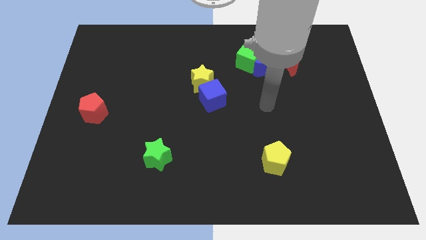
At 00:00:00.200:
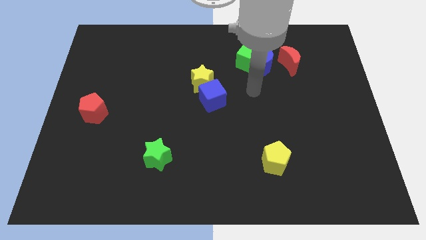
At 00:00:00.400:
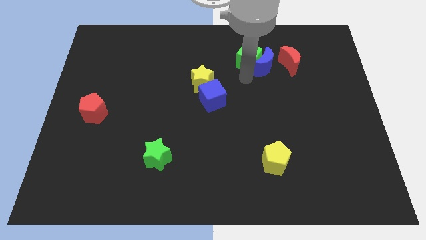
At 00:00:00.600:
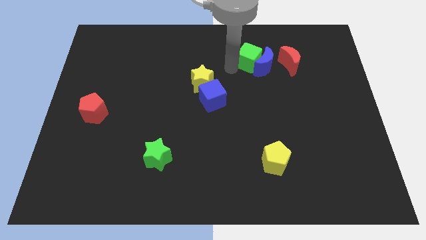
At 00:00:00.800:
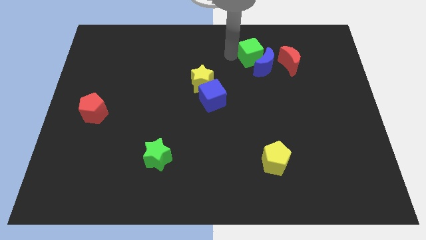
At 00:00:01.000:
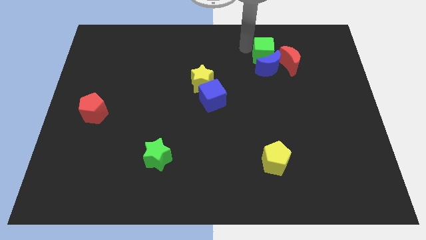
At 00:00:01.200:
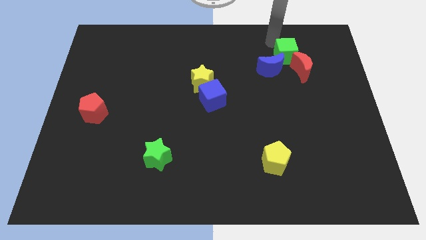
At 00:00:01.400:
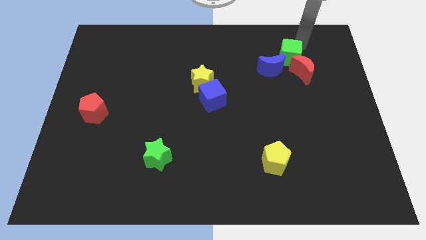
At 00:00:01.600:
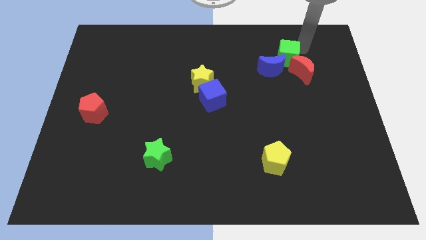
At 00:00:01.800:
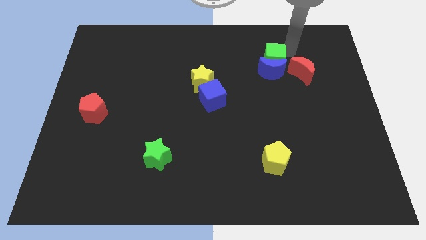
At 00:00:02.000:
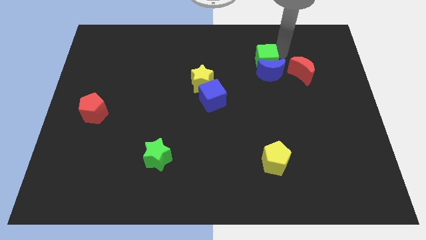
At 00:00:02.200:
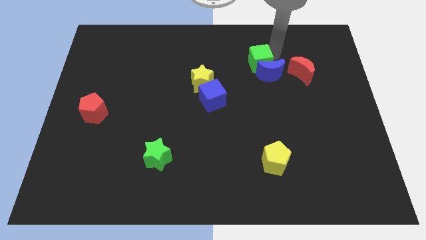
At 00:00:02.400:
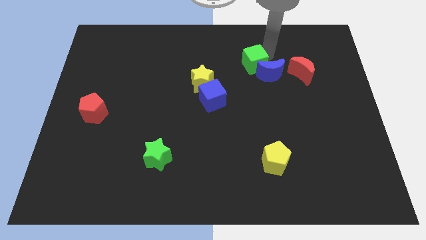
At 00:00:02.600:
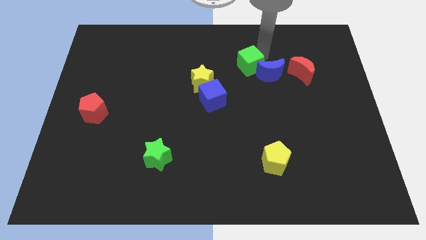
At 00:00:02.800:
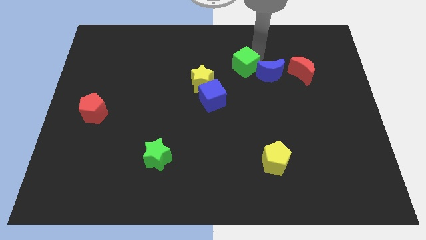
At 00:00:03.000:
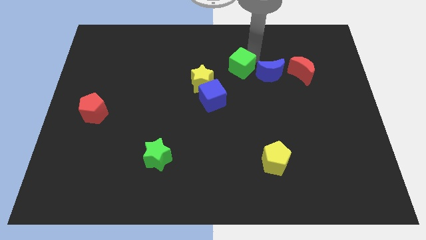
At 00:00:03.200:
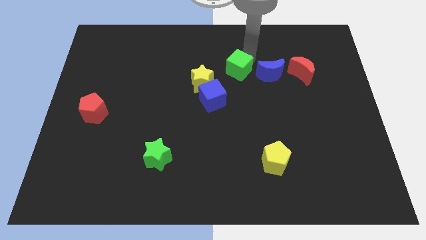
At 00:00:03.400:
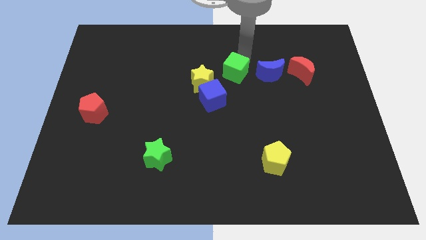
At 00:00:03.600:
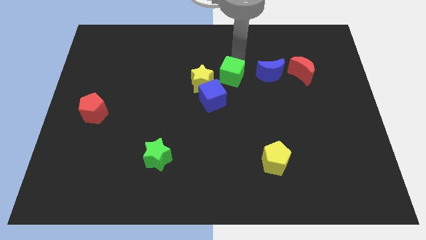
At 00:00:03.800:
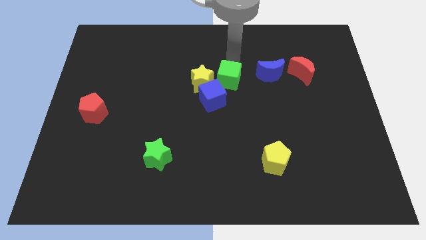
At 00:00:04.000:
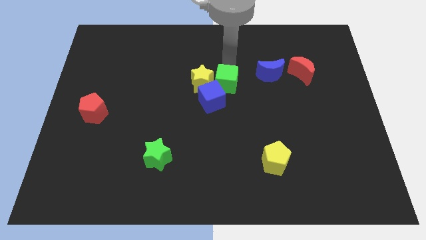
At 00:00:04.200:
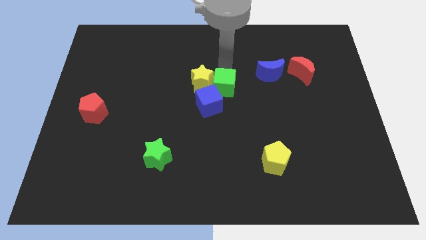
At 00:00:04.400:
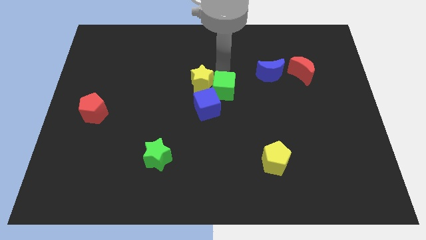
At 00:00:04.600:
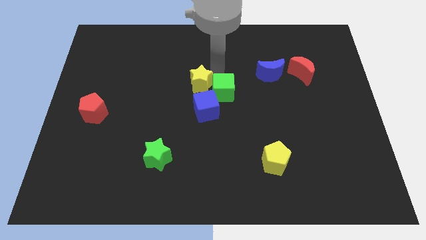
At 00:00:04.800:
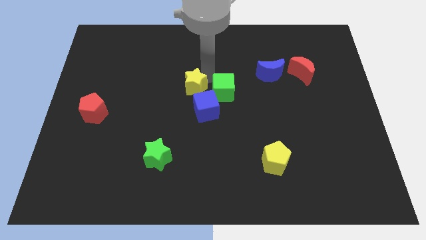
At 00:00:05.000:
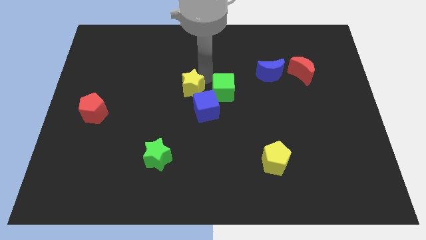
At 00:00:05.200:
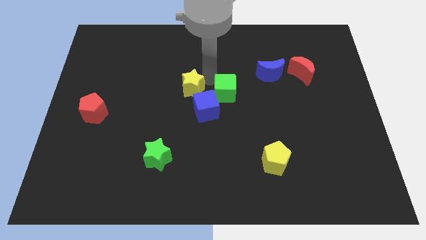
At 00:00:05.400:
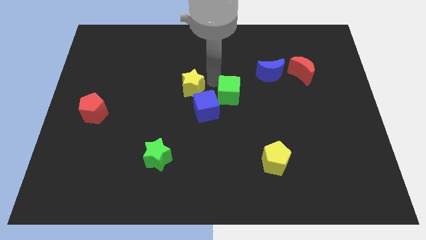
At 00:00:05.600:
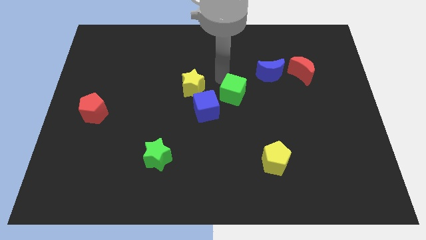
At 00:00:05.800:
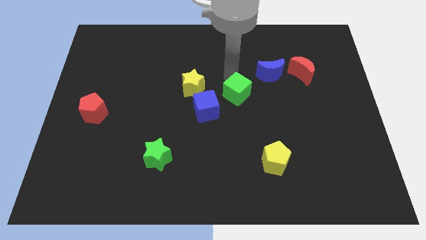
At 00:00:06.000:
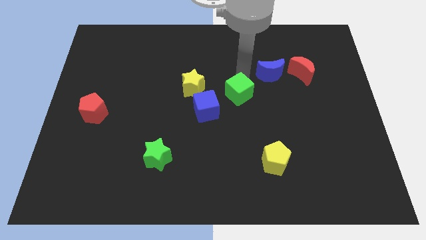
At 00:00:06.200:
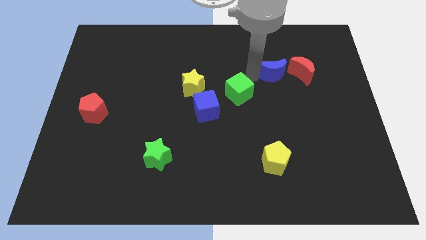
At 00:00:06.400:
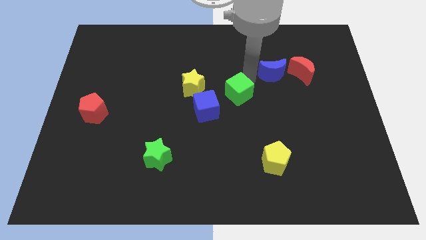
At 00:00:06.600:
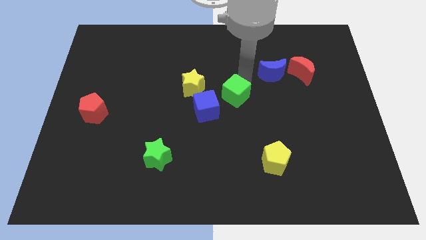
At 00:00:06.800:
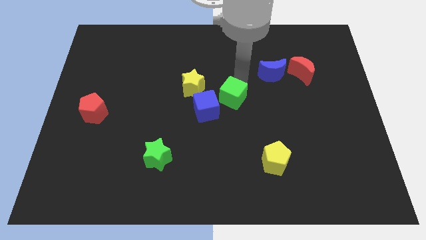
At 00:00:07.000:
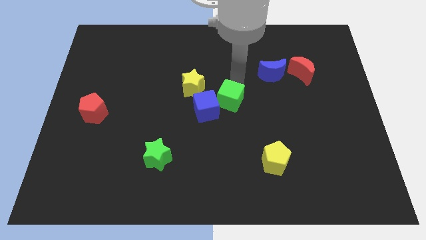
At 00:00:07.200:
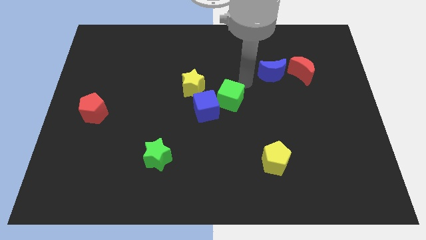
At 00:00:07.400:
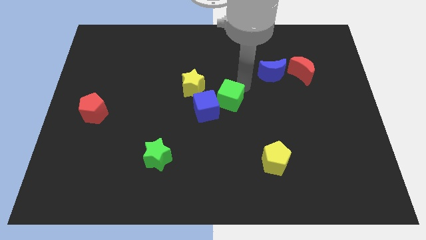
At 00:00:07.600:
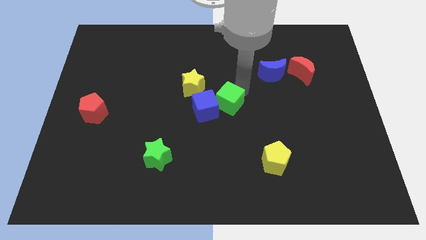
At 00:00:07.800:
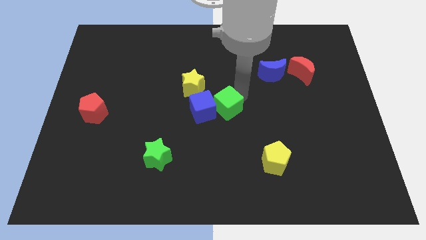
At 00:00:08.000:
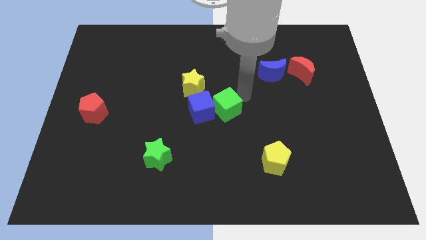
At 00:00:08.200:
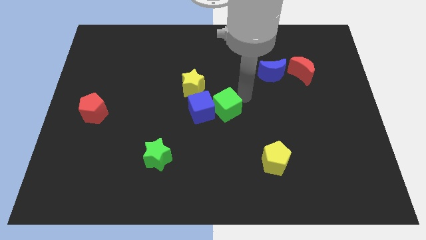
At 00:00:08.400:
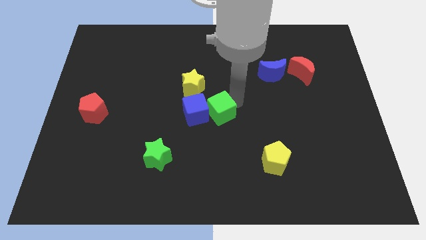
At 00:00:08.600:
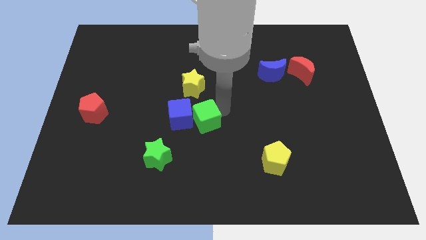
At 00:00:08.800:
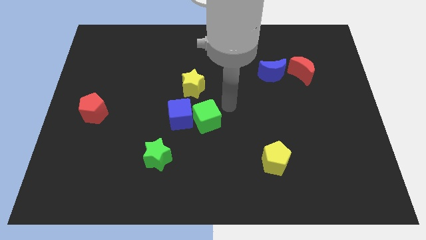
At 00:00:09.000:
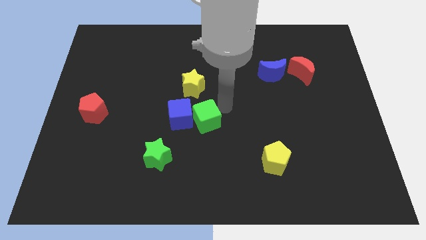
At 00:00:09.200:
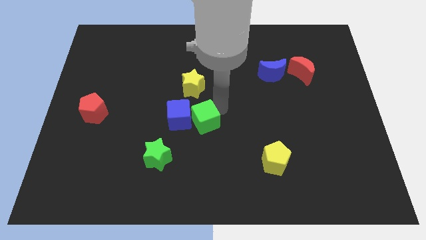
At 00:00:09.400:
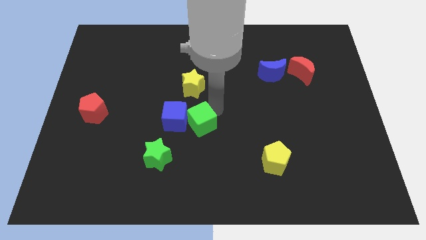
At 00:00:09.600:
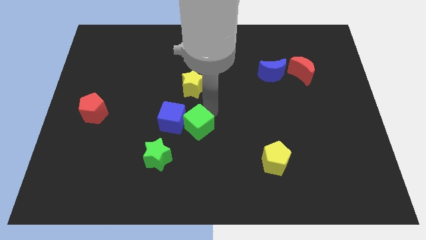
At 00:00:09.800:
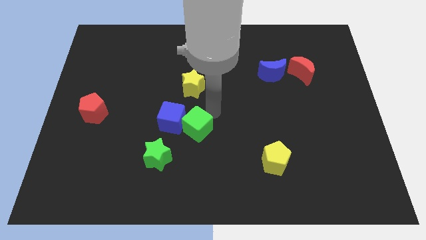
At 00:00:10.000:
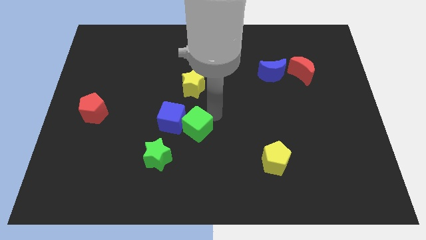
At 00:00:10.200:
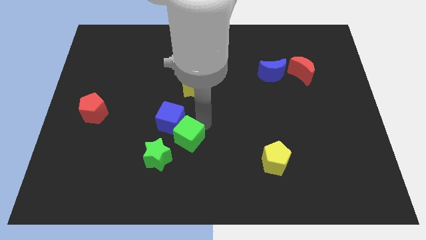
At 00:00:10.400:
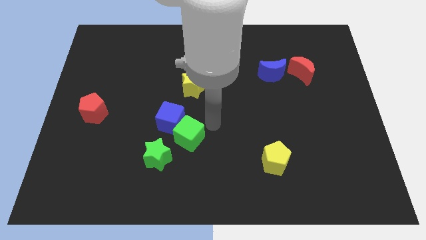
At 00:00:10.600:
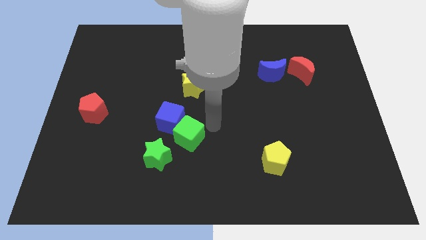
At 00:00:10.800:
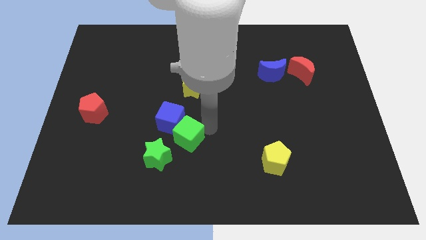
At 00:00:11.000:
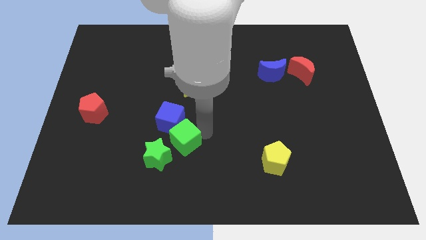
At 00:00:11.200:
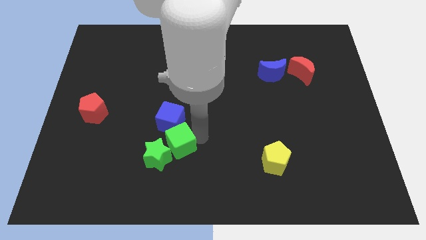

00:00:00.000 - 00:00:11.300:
slide the green cube next to the green star

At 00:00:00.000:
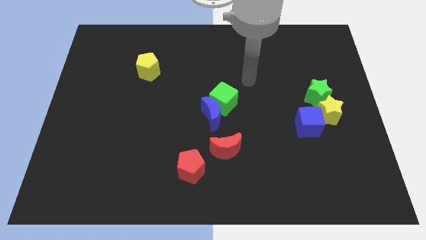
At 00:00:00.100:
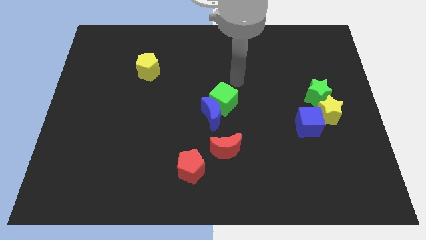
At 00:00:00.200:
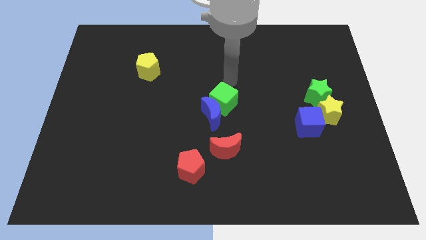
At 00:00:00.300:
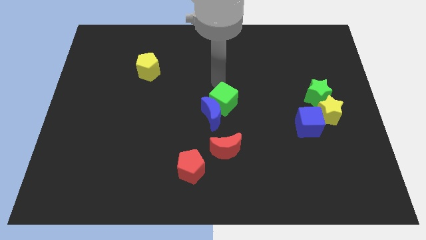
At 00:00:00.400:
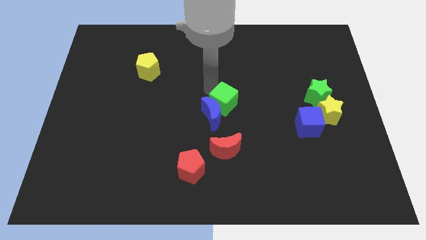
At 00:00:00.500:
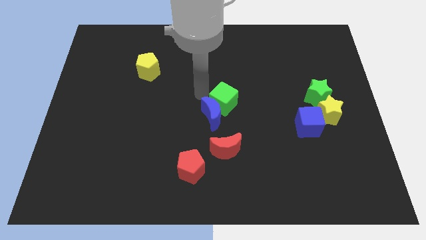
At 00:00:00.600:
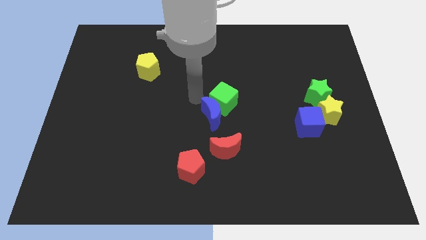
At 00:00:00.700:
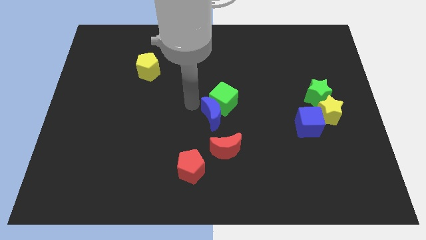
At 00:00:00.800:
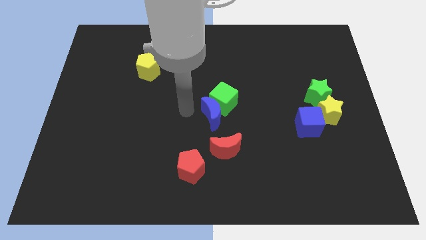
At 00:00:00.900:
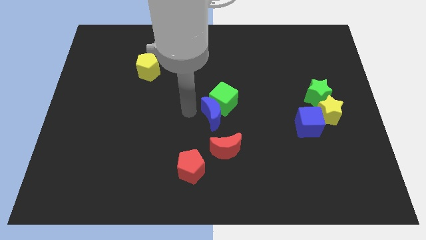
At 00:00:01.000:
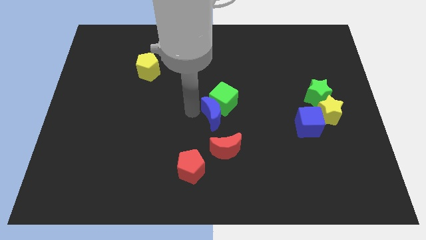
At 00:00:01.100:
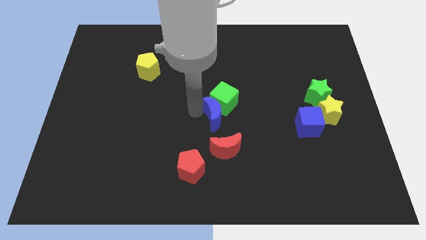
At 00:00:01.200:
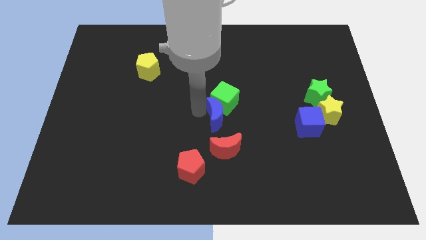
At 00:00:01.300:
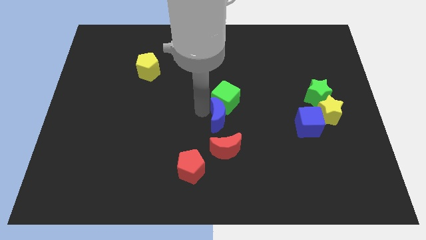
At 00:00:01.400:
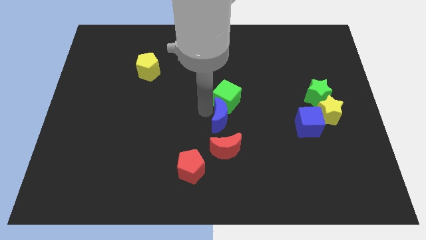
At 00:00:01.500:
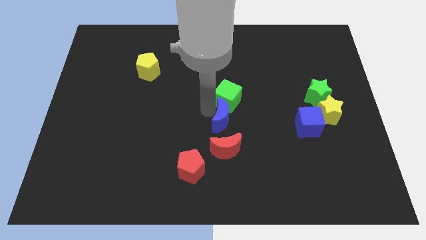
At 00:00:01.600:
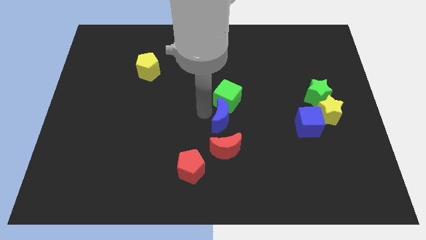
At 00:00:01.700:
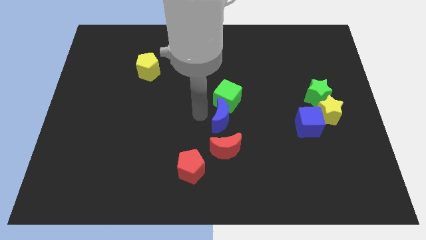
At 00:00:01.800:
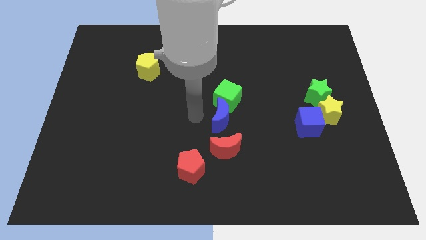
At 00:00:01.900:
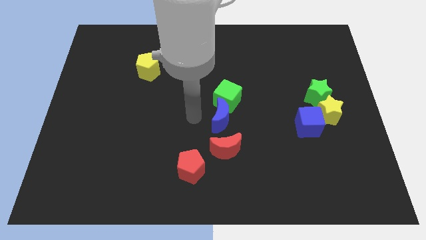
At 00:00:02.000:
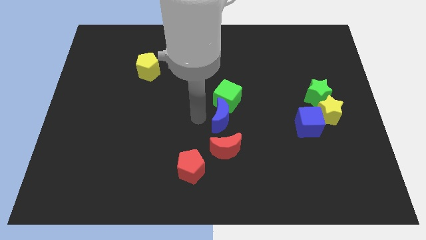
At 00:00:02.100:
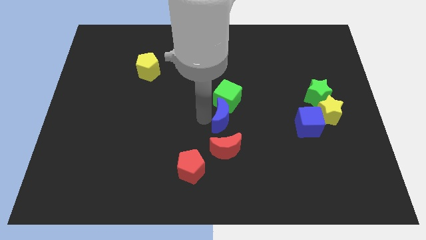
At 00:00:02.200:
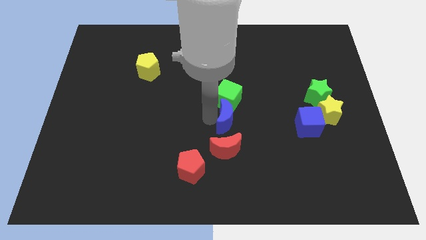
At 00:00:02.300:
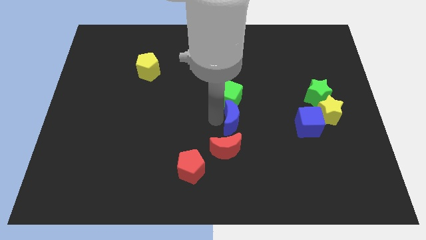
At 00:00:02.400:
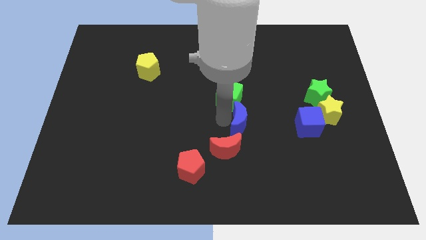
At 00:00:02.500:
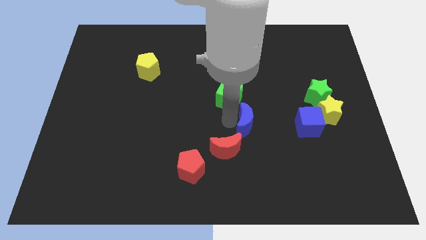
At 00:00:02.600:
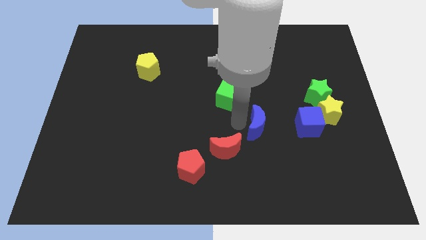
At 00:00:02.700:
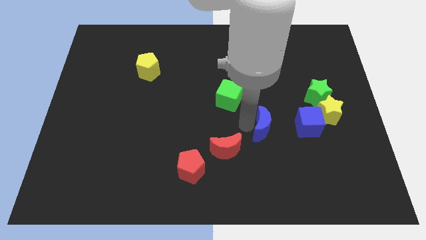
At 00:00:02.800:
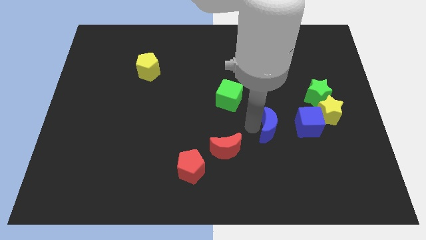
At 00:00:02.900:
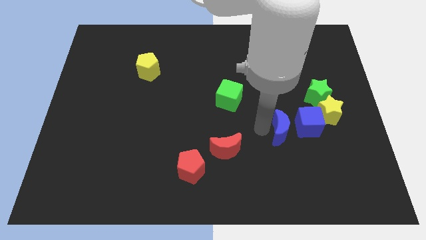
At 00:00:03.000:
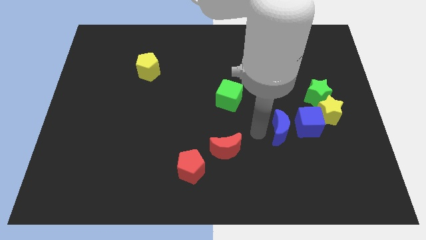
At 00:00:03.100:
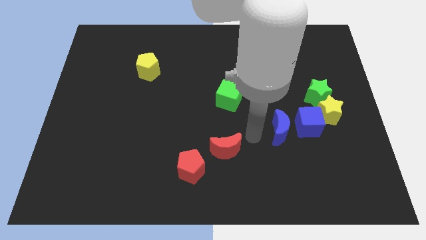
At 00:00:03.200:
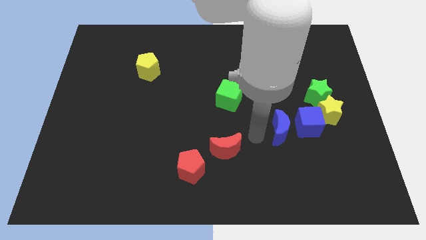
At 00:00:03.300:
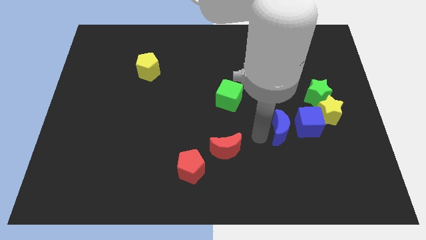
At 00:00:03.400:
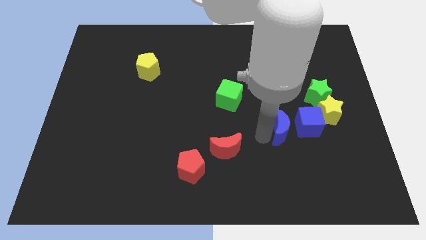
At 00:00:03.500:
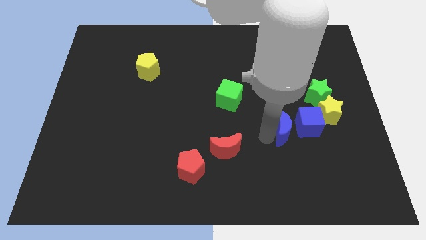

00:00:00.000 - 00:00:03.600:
push the blue moon to the blue cube
